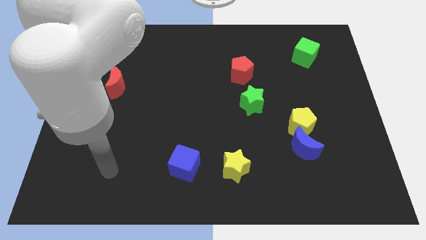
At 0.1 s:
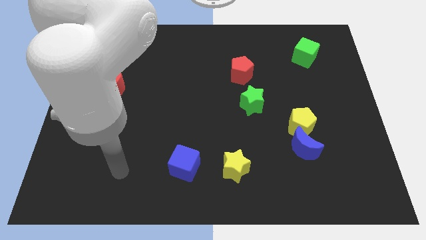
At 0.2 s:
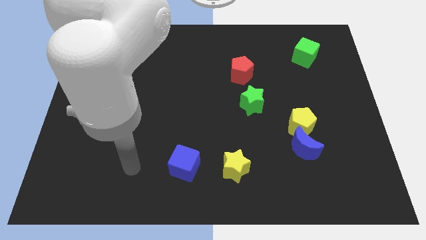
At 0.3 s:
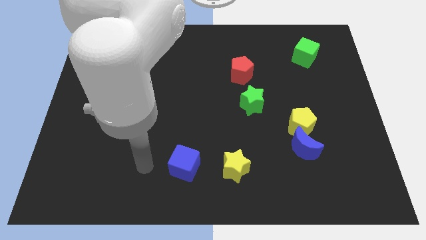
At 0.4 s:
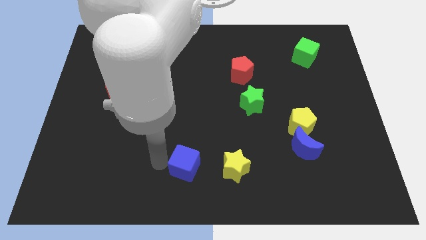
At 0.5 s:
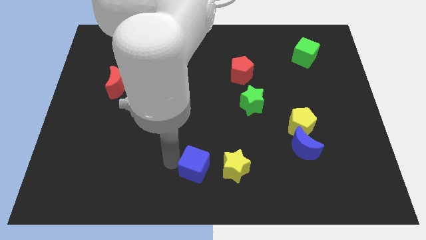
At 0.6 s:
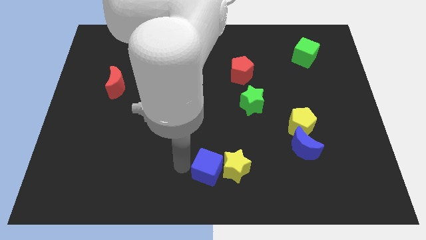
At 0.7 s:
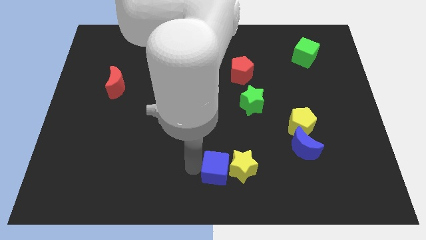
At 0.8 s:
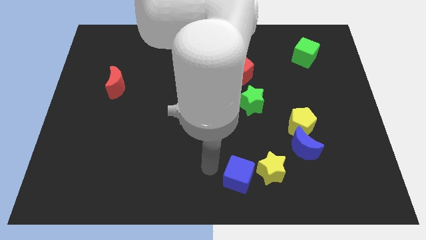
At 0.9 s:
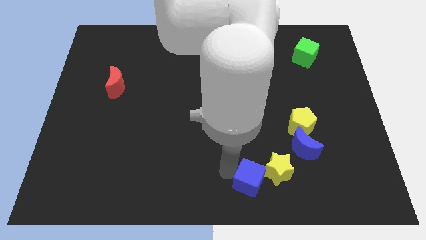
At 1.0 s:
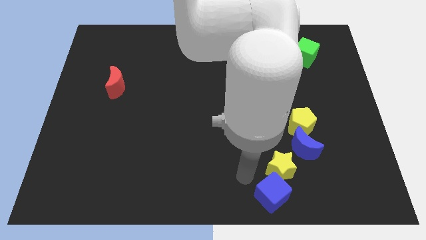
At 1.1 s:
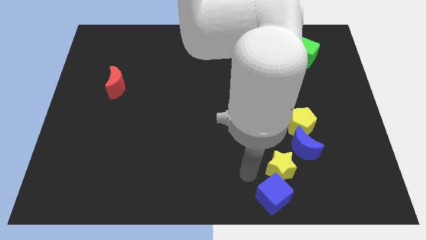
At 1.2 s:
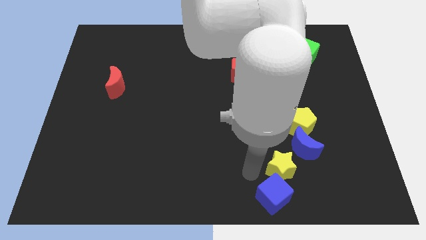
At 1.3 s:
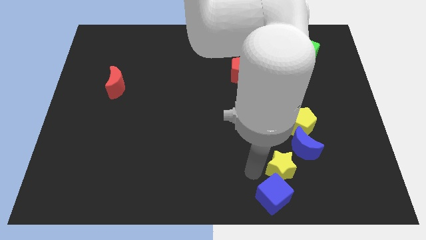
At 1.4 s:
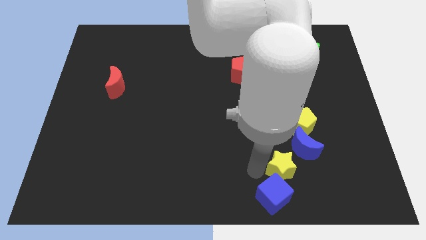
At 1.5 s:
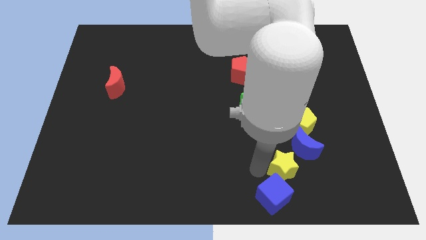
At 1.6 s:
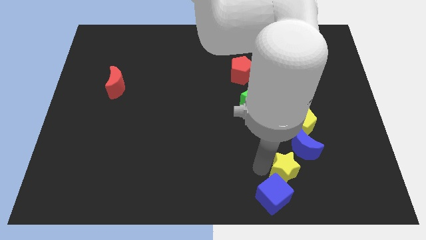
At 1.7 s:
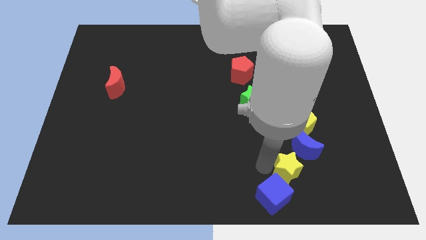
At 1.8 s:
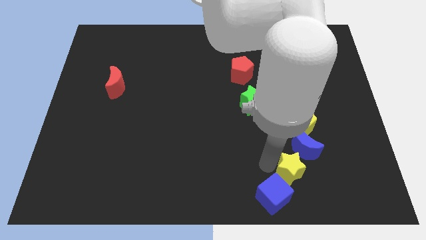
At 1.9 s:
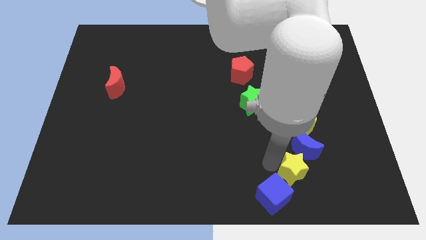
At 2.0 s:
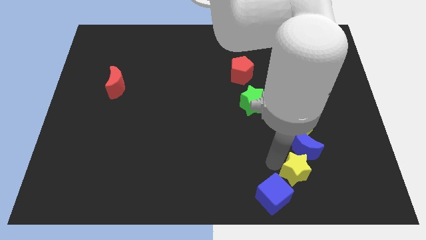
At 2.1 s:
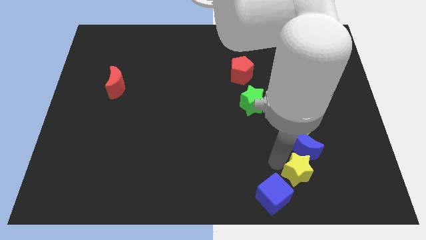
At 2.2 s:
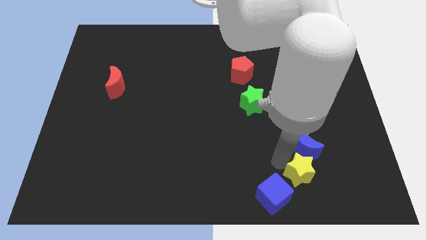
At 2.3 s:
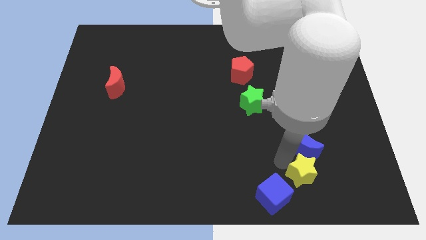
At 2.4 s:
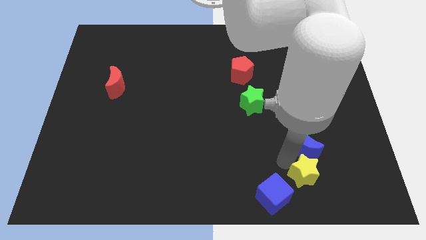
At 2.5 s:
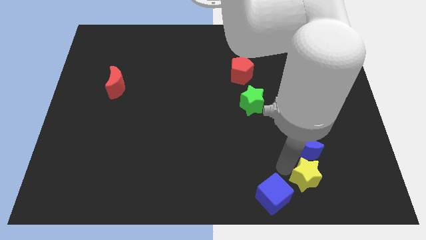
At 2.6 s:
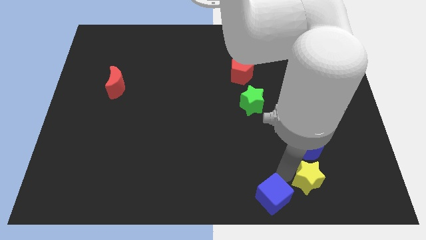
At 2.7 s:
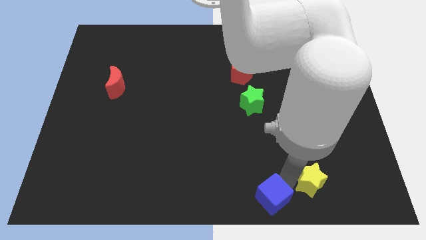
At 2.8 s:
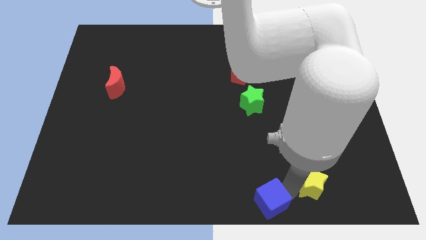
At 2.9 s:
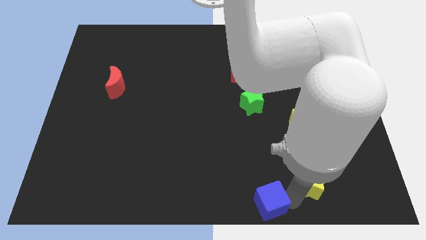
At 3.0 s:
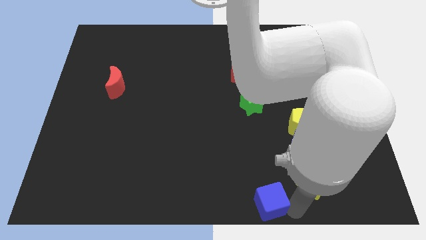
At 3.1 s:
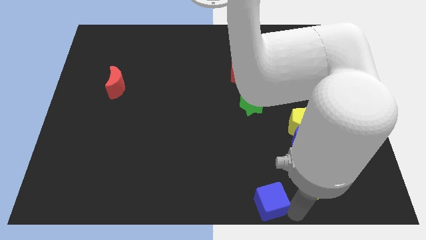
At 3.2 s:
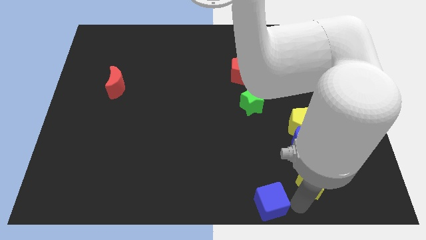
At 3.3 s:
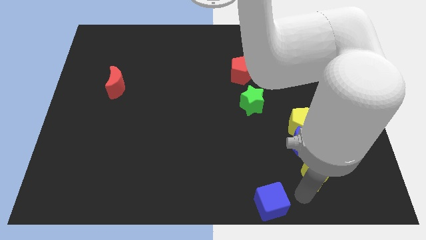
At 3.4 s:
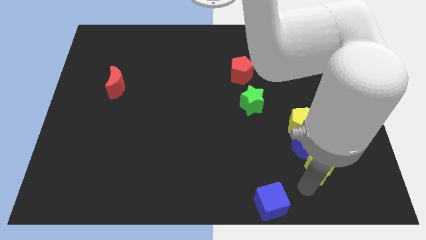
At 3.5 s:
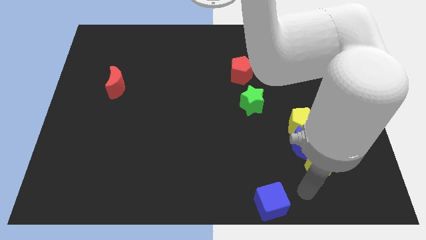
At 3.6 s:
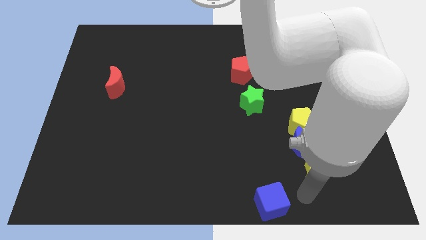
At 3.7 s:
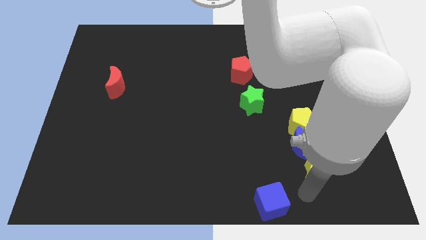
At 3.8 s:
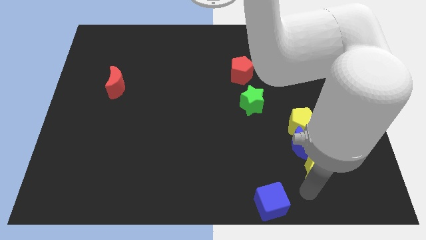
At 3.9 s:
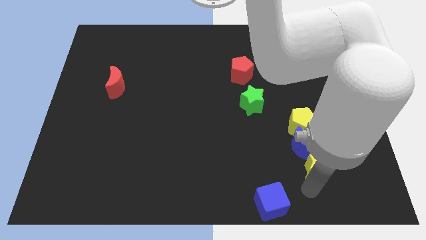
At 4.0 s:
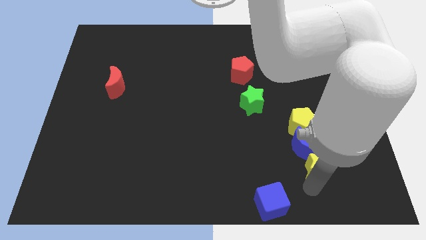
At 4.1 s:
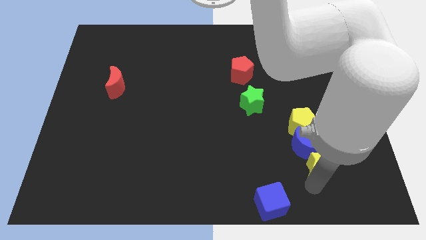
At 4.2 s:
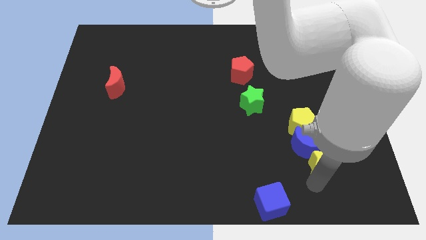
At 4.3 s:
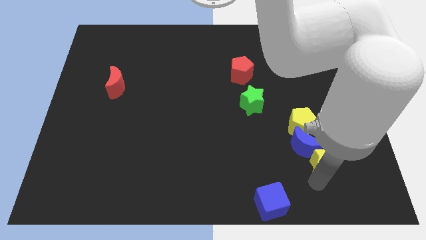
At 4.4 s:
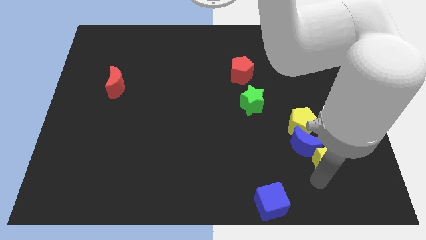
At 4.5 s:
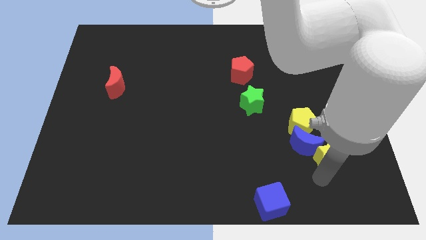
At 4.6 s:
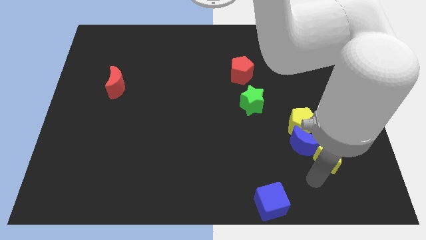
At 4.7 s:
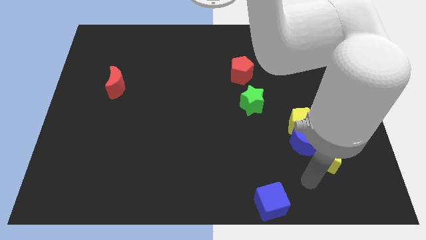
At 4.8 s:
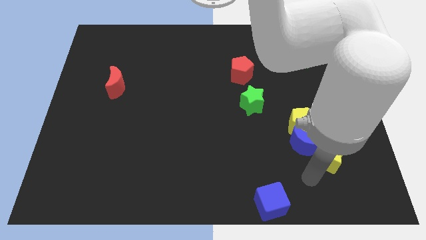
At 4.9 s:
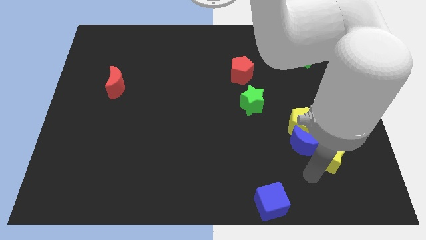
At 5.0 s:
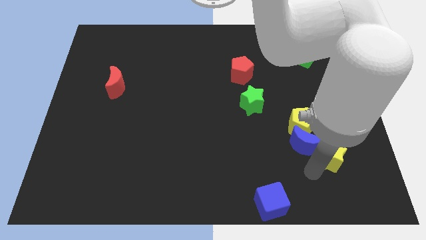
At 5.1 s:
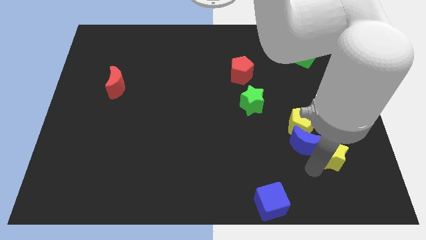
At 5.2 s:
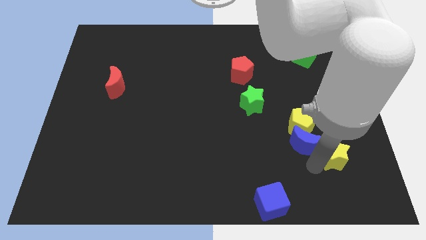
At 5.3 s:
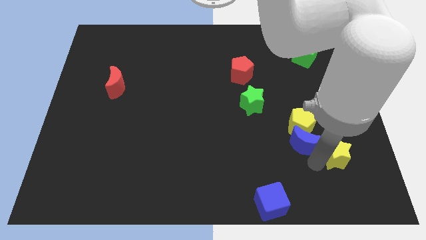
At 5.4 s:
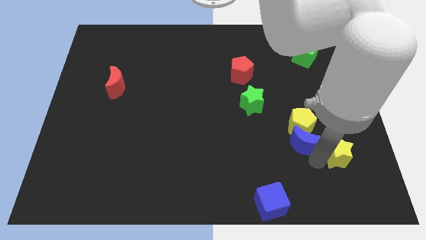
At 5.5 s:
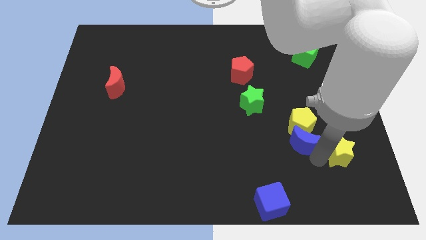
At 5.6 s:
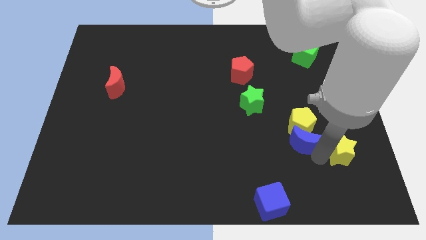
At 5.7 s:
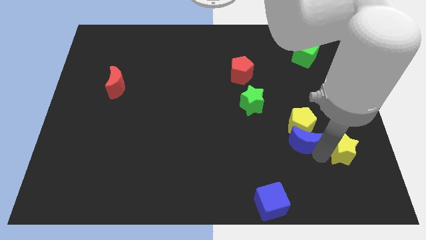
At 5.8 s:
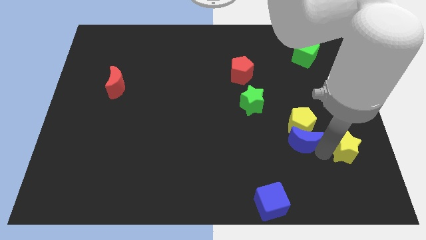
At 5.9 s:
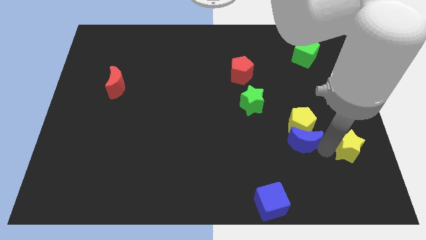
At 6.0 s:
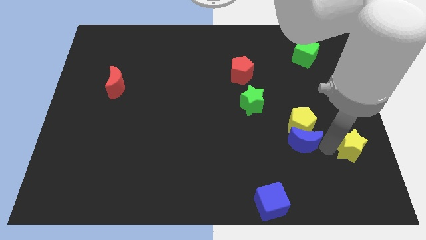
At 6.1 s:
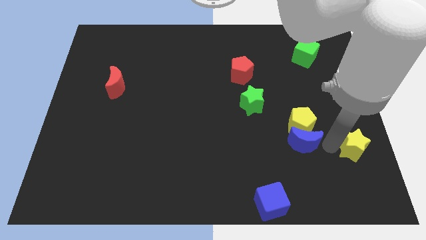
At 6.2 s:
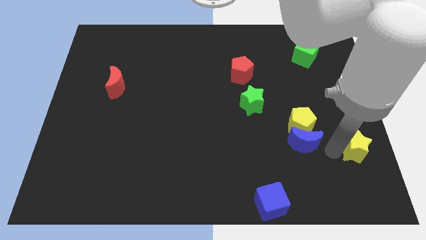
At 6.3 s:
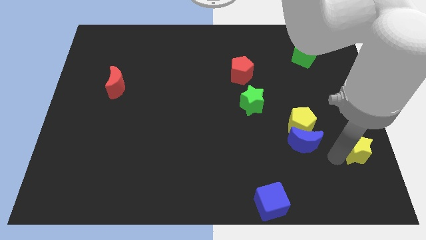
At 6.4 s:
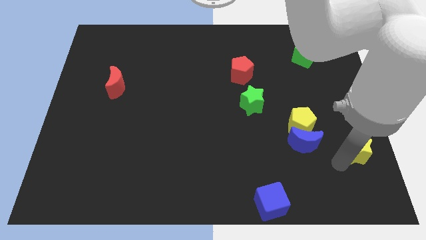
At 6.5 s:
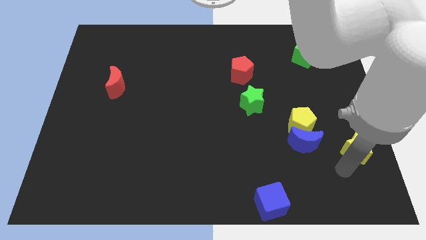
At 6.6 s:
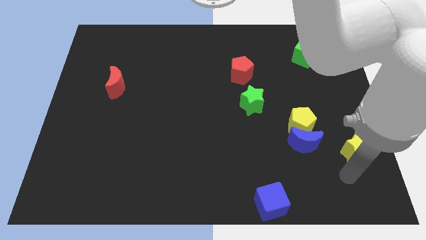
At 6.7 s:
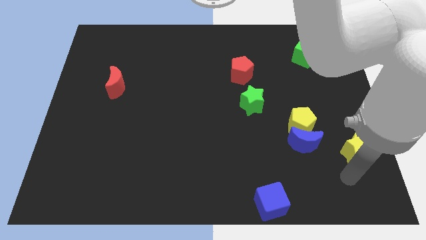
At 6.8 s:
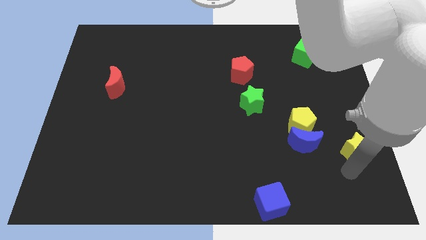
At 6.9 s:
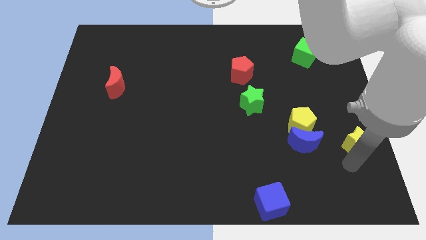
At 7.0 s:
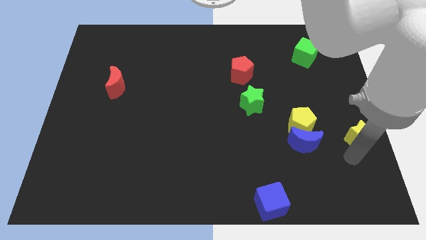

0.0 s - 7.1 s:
slide the yellow star to the center right
